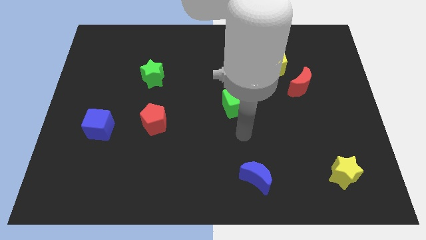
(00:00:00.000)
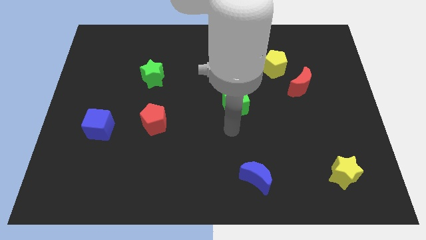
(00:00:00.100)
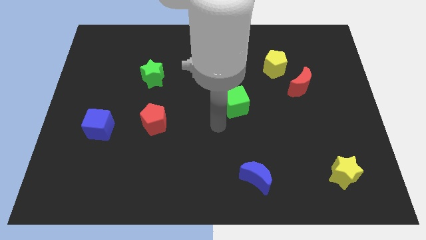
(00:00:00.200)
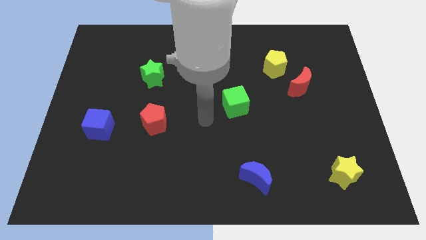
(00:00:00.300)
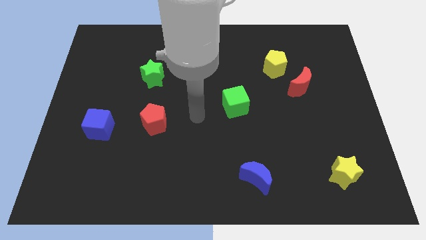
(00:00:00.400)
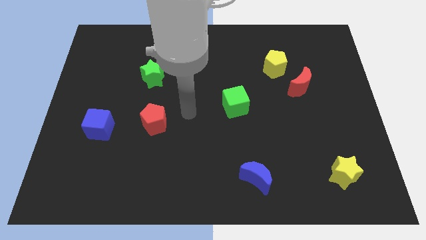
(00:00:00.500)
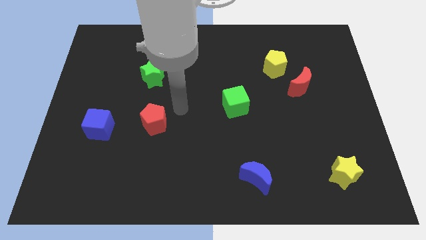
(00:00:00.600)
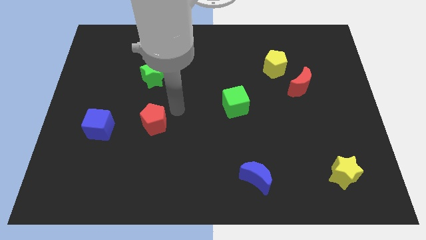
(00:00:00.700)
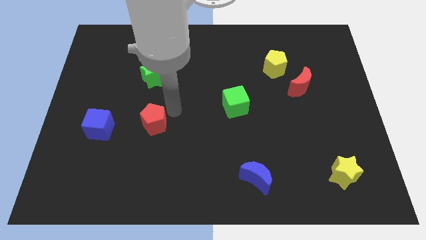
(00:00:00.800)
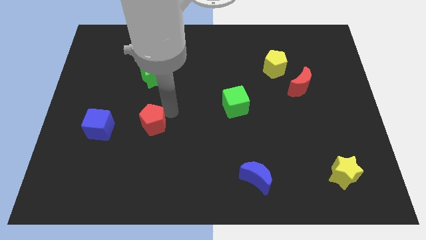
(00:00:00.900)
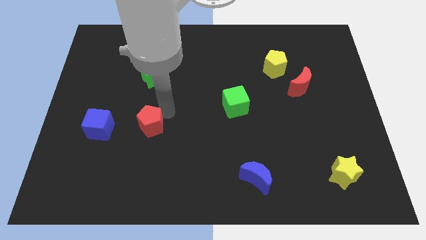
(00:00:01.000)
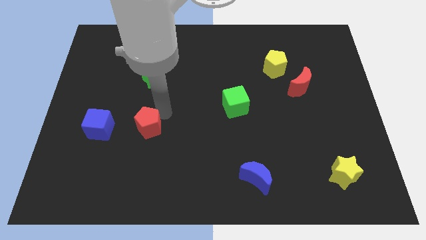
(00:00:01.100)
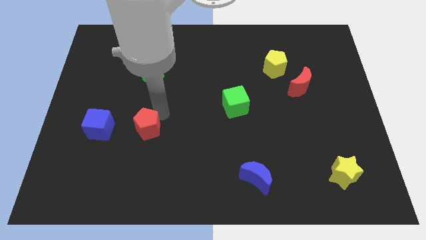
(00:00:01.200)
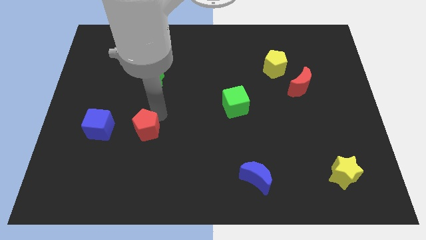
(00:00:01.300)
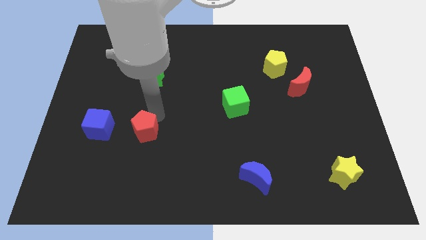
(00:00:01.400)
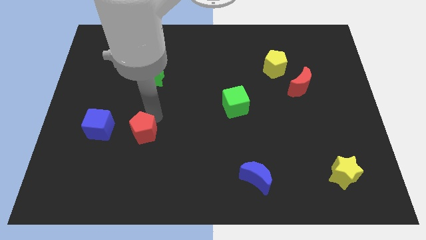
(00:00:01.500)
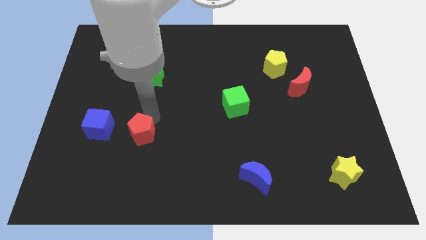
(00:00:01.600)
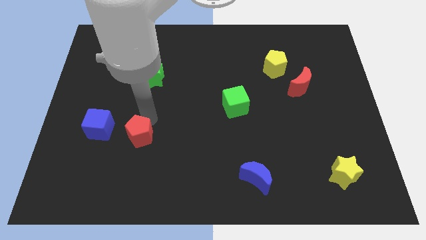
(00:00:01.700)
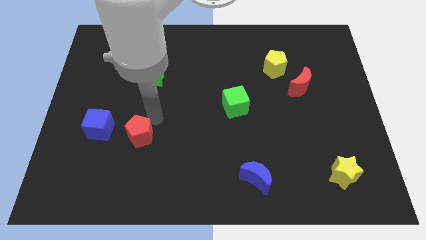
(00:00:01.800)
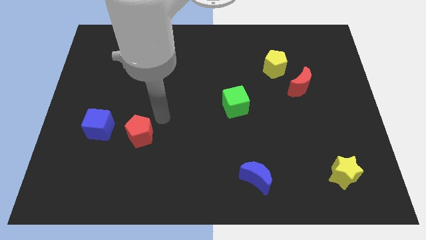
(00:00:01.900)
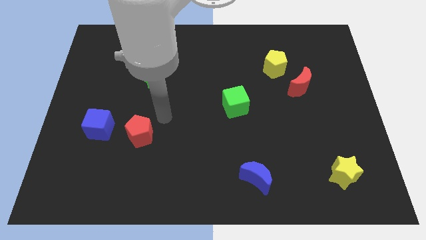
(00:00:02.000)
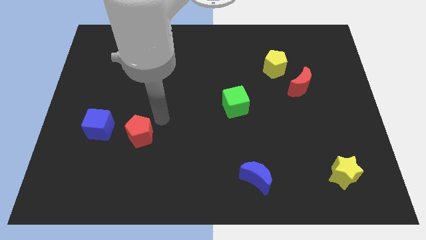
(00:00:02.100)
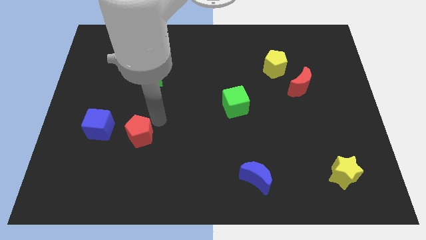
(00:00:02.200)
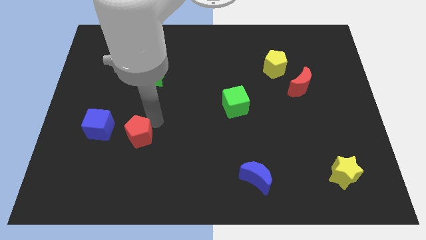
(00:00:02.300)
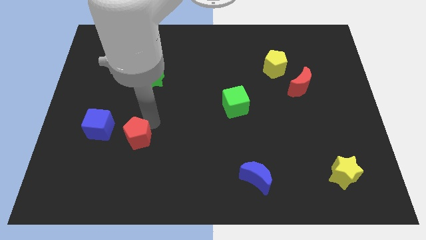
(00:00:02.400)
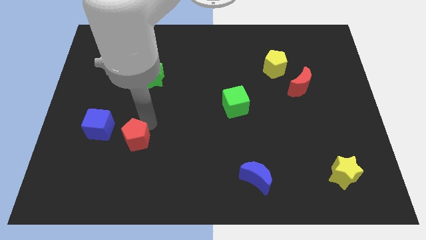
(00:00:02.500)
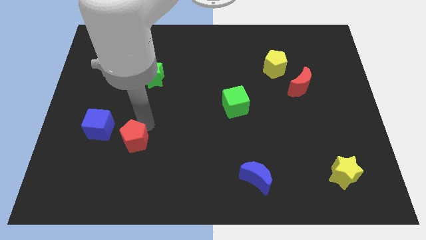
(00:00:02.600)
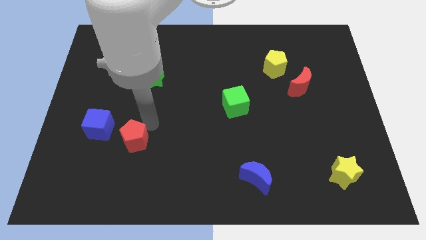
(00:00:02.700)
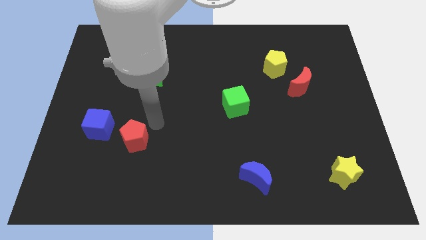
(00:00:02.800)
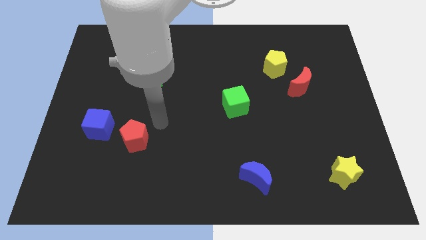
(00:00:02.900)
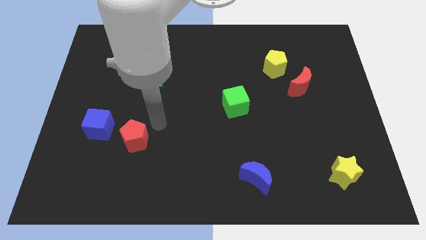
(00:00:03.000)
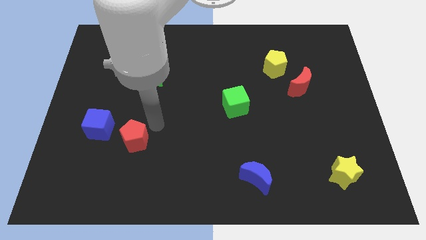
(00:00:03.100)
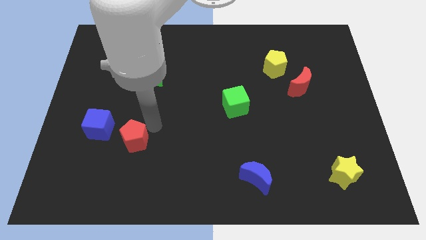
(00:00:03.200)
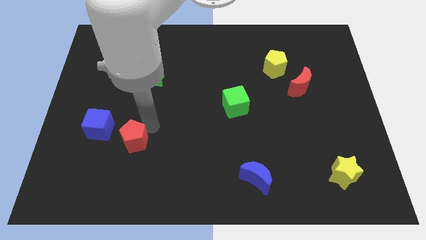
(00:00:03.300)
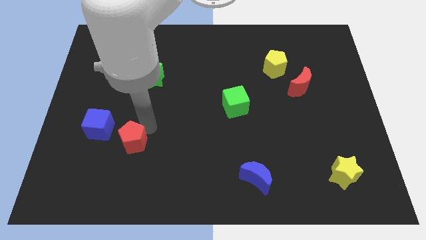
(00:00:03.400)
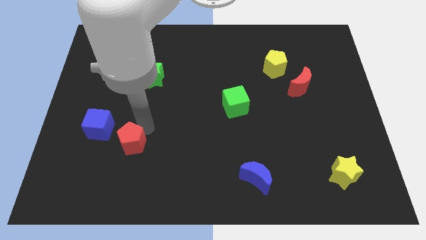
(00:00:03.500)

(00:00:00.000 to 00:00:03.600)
push the red pentagon diagonally downwards and left slightly

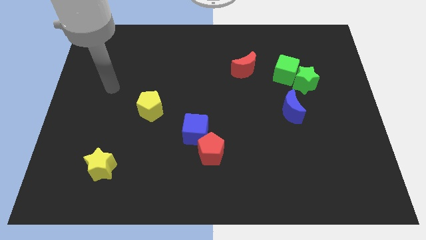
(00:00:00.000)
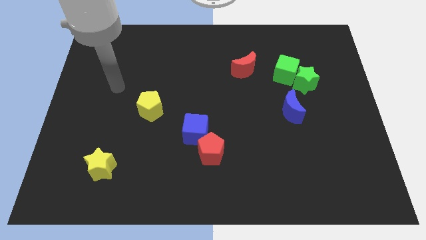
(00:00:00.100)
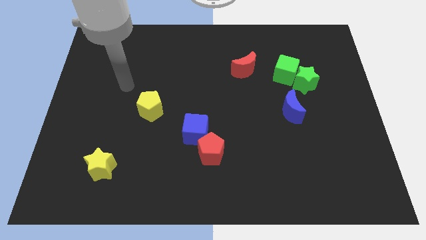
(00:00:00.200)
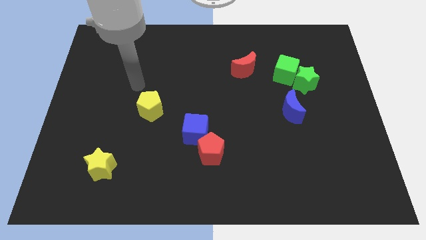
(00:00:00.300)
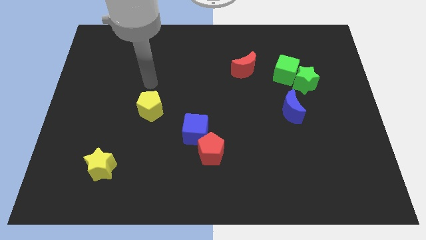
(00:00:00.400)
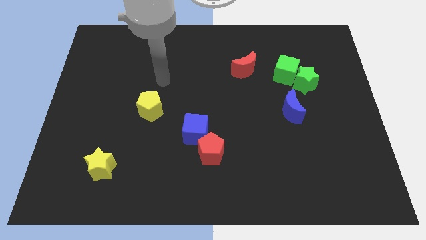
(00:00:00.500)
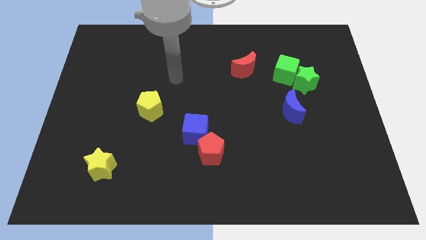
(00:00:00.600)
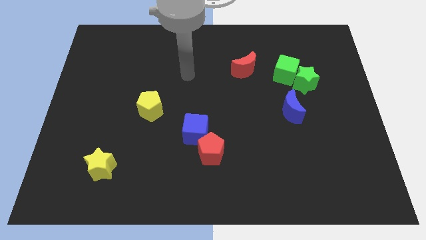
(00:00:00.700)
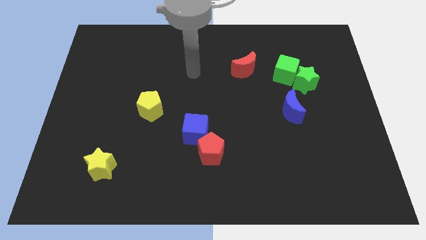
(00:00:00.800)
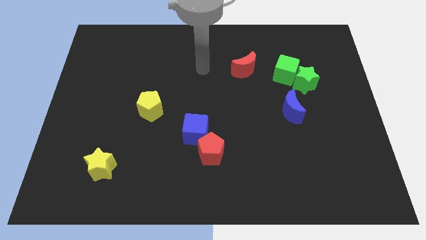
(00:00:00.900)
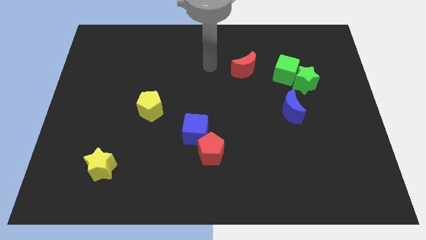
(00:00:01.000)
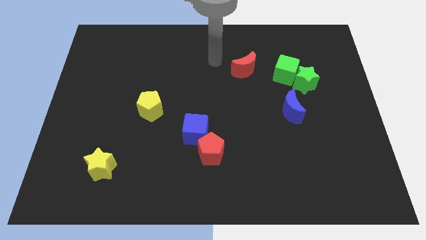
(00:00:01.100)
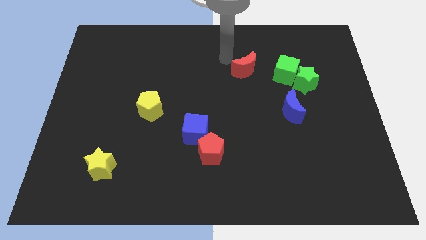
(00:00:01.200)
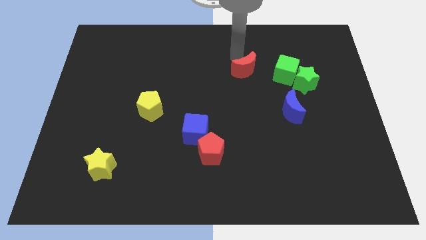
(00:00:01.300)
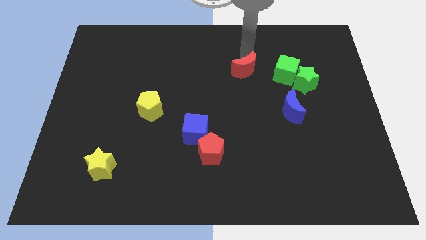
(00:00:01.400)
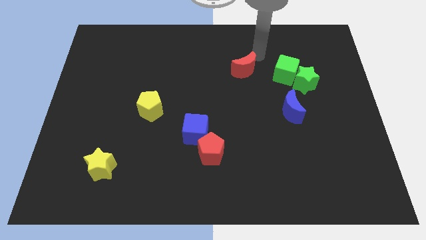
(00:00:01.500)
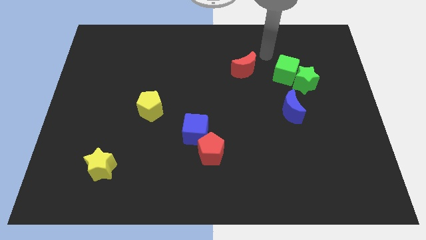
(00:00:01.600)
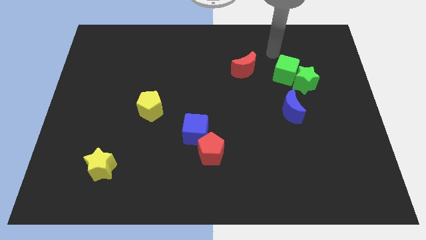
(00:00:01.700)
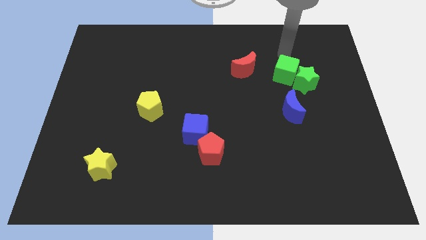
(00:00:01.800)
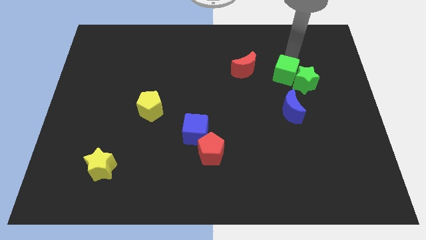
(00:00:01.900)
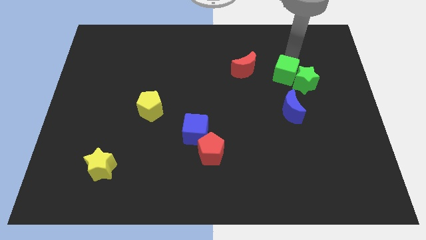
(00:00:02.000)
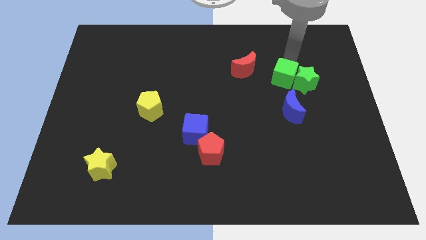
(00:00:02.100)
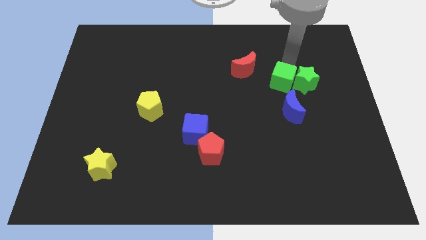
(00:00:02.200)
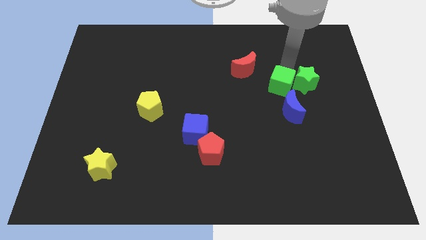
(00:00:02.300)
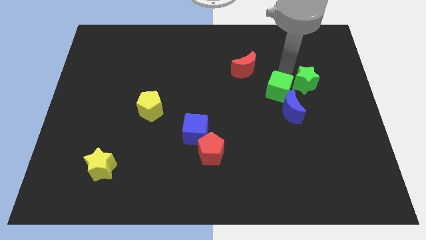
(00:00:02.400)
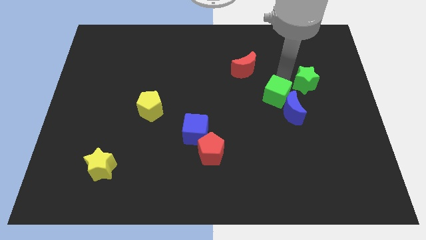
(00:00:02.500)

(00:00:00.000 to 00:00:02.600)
slightly slide the green cube down

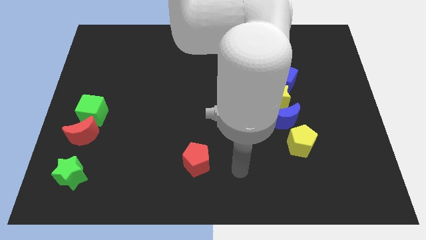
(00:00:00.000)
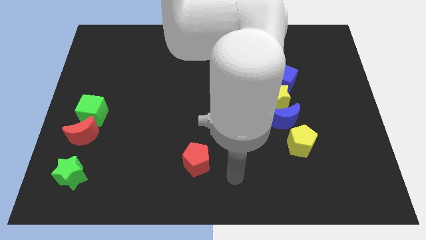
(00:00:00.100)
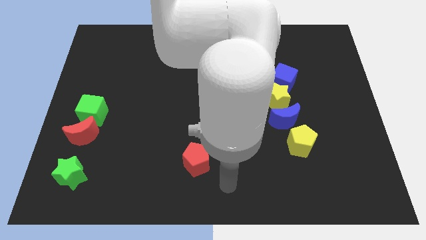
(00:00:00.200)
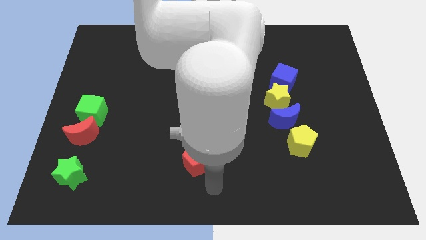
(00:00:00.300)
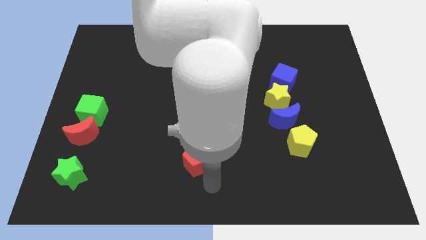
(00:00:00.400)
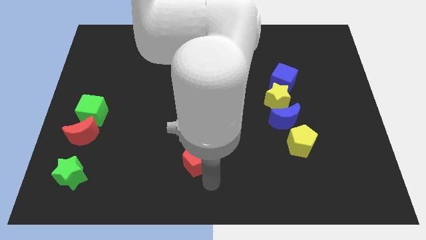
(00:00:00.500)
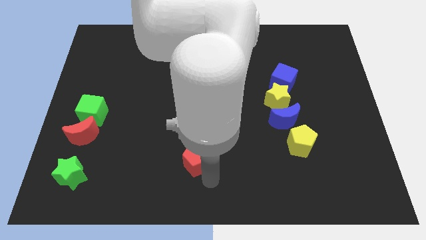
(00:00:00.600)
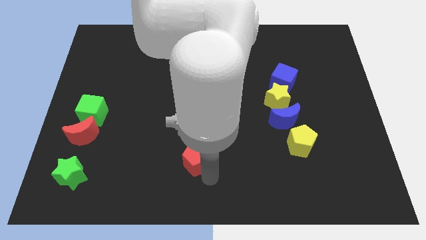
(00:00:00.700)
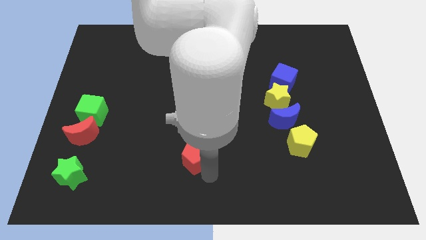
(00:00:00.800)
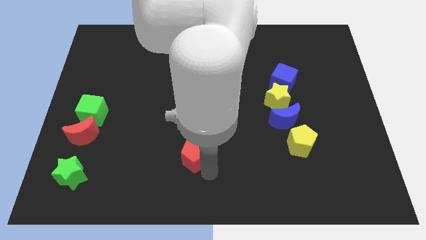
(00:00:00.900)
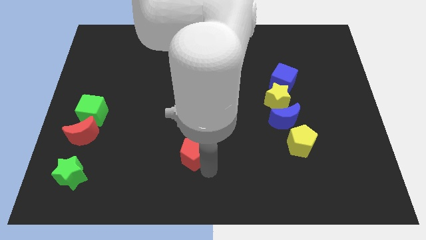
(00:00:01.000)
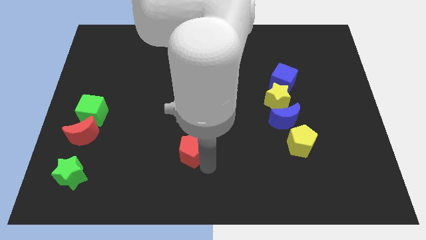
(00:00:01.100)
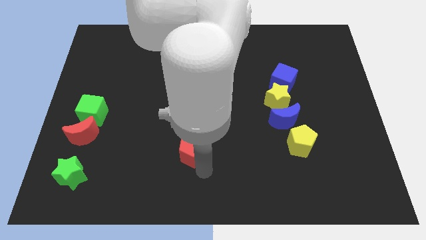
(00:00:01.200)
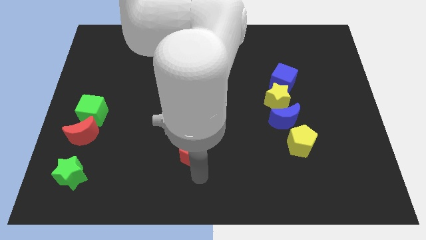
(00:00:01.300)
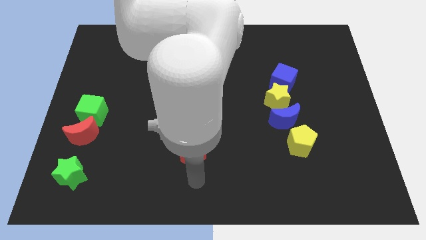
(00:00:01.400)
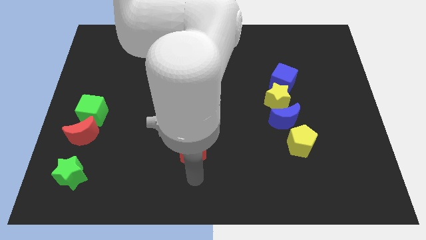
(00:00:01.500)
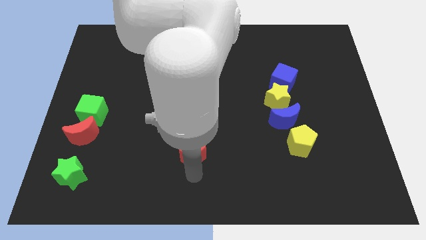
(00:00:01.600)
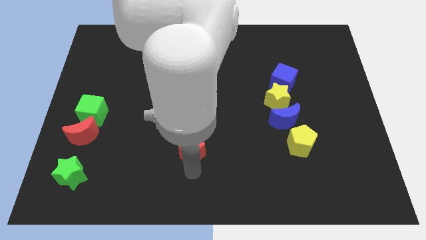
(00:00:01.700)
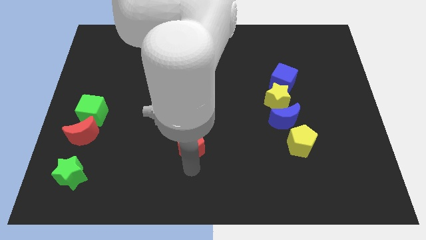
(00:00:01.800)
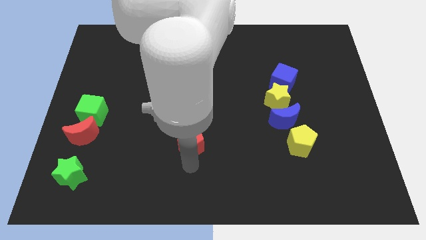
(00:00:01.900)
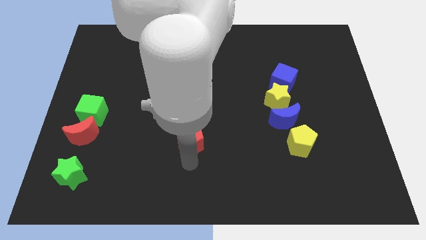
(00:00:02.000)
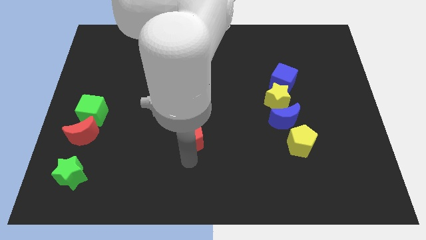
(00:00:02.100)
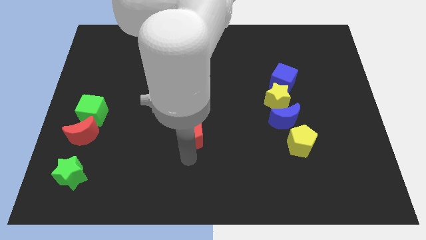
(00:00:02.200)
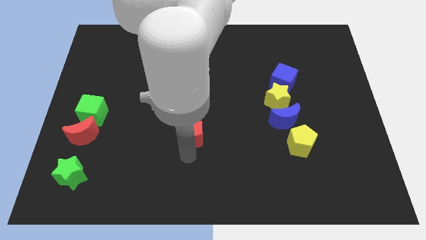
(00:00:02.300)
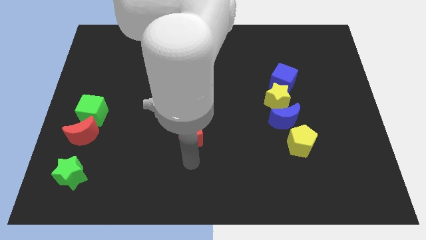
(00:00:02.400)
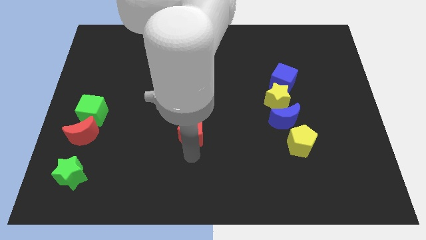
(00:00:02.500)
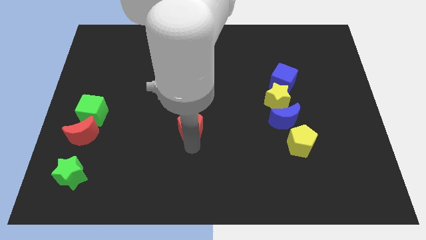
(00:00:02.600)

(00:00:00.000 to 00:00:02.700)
slightly move the red pentagon upwards
